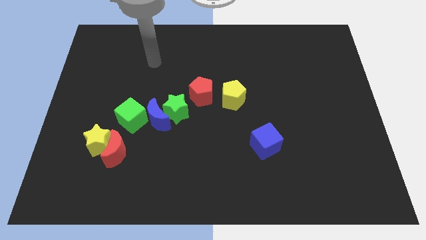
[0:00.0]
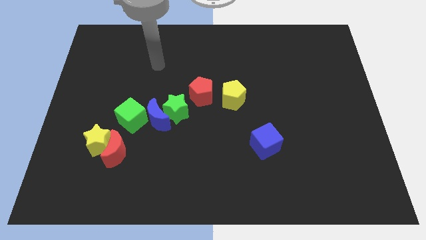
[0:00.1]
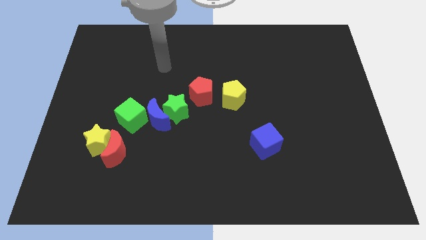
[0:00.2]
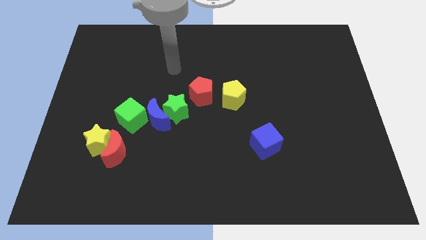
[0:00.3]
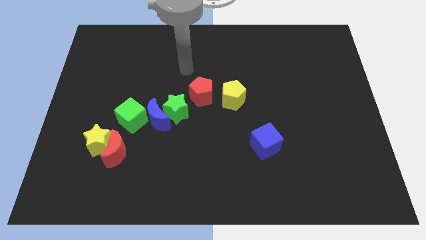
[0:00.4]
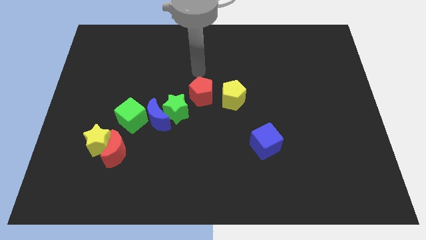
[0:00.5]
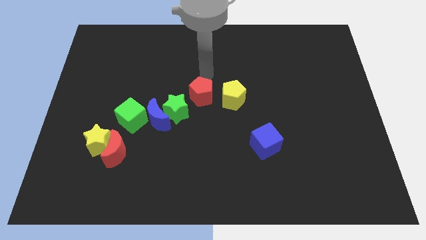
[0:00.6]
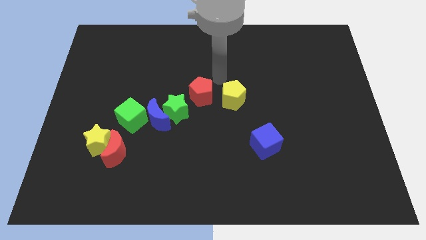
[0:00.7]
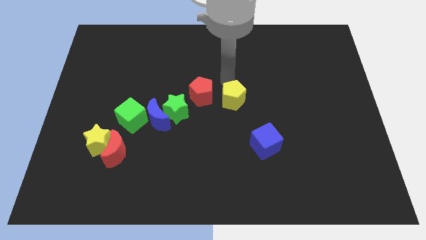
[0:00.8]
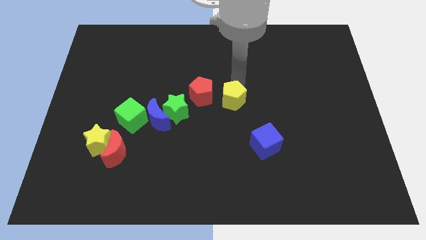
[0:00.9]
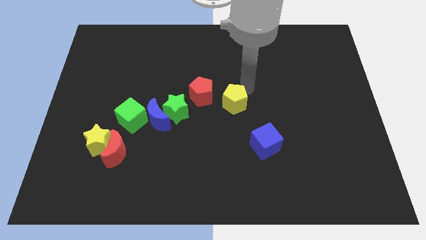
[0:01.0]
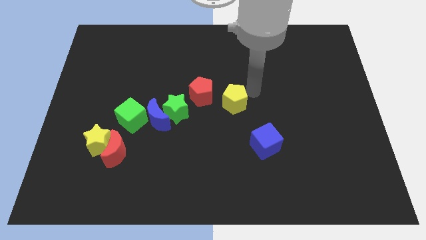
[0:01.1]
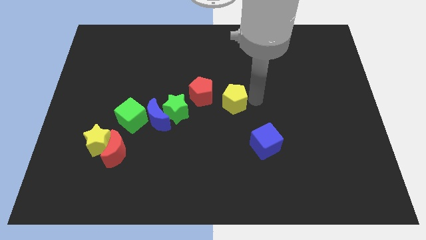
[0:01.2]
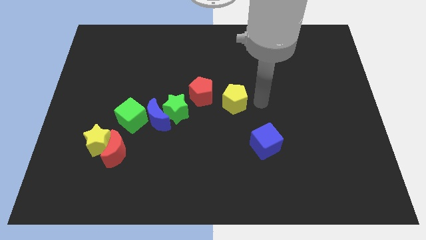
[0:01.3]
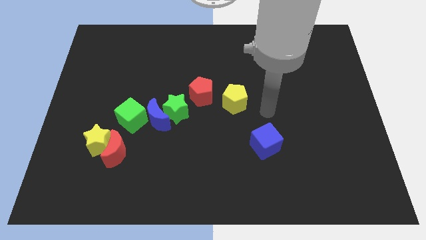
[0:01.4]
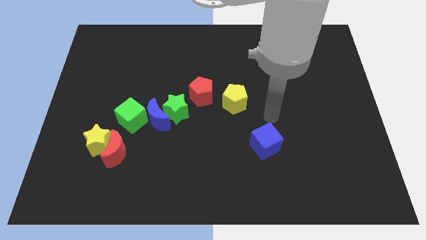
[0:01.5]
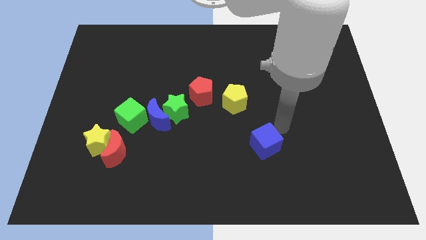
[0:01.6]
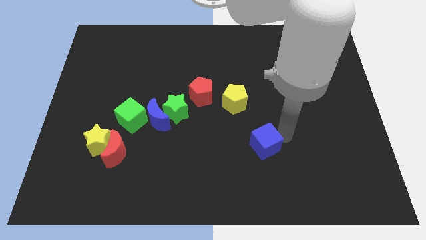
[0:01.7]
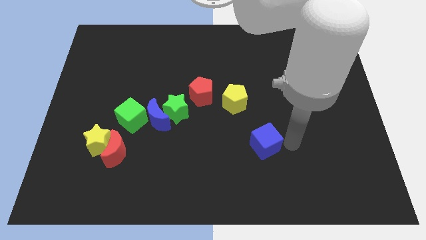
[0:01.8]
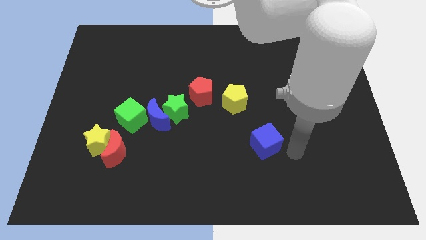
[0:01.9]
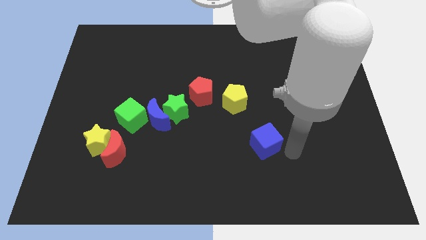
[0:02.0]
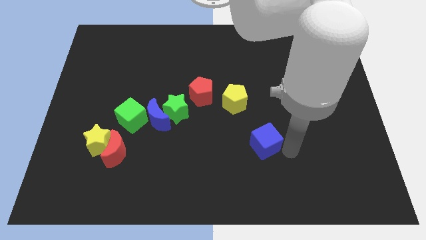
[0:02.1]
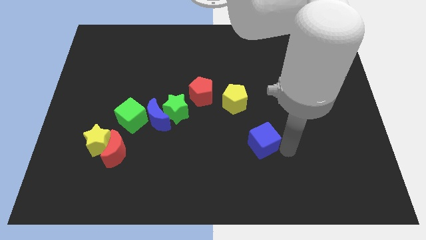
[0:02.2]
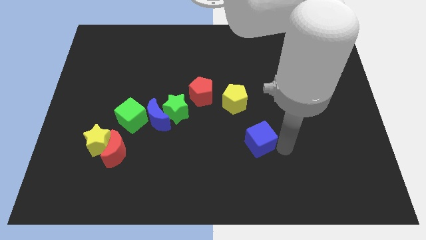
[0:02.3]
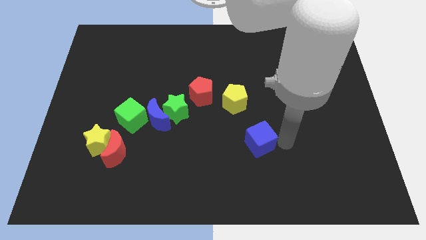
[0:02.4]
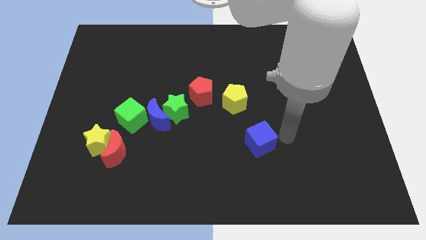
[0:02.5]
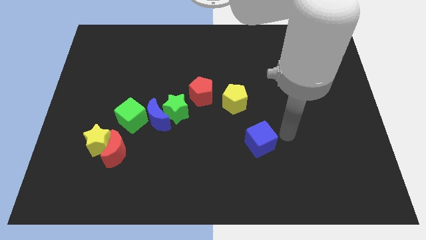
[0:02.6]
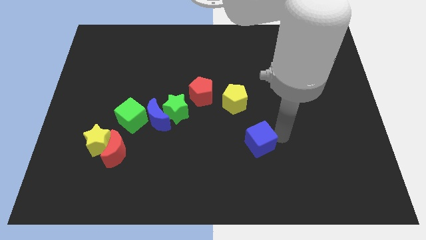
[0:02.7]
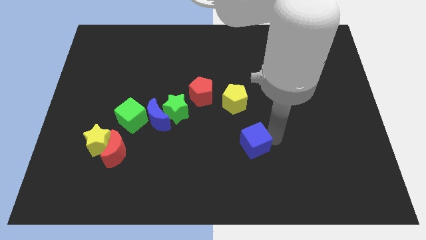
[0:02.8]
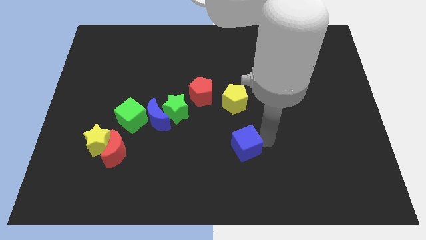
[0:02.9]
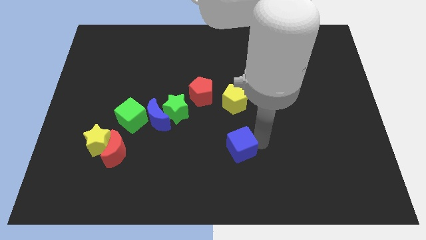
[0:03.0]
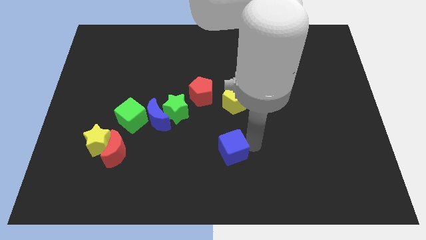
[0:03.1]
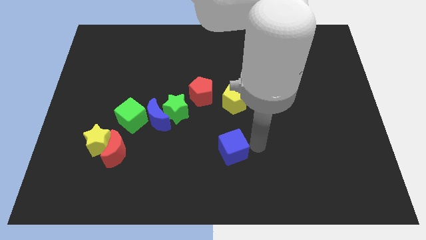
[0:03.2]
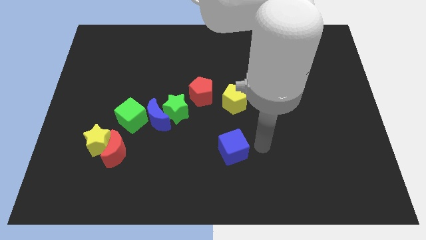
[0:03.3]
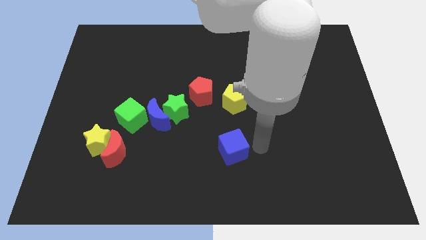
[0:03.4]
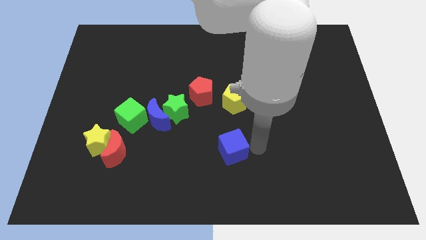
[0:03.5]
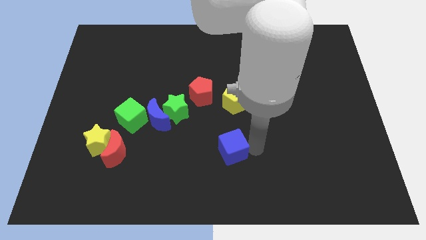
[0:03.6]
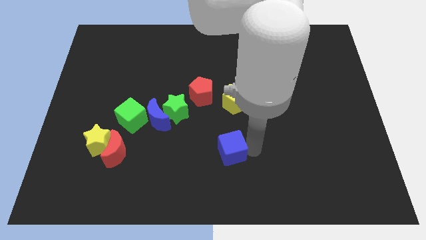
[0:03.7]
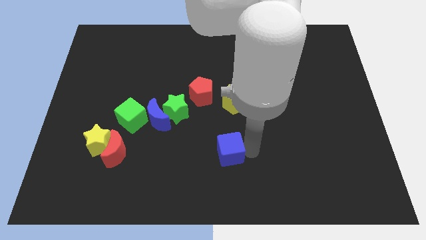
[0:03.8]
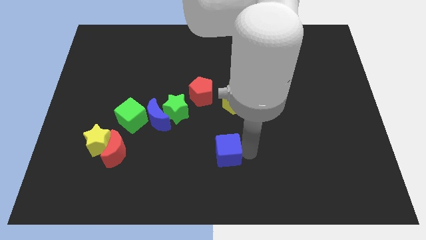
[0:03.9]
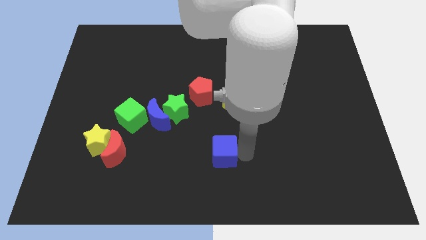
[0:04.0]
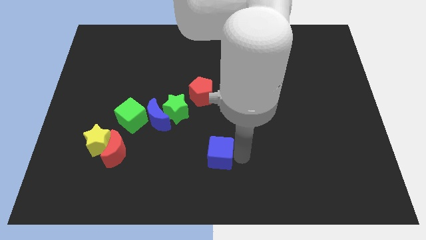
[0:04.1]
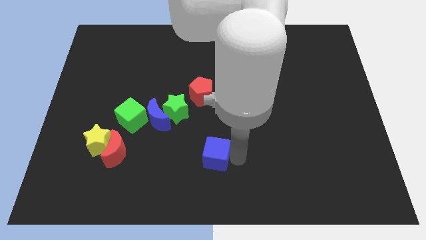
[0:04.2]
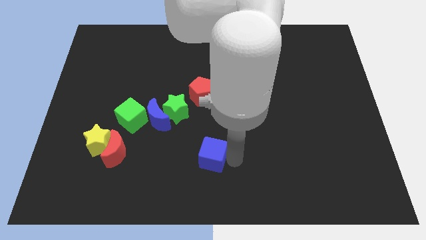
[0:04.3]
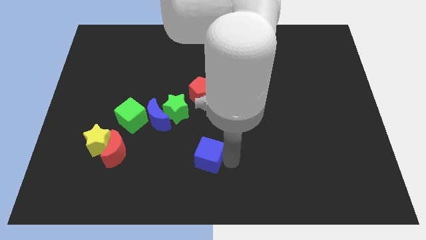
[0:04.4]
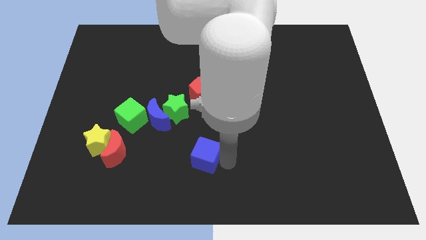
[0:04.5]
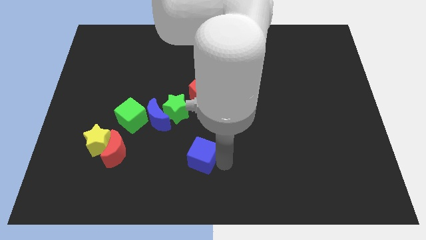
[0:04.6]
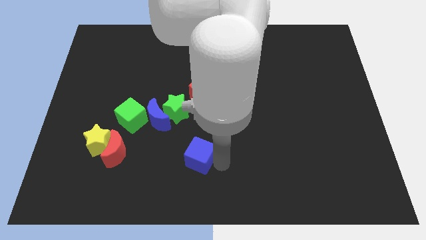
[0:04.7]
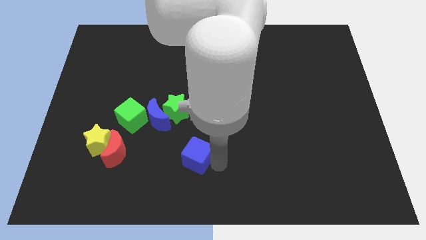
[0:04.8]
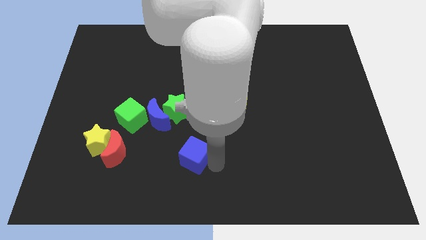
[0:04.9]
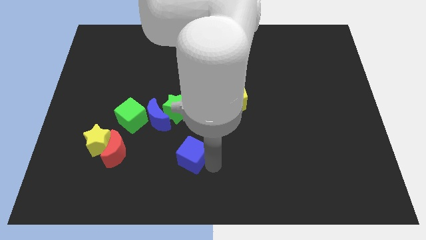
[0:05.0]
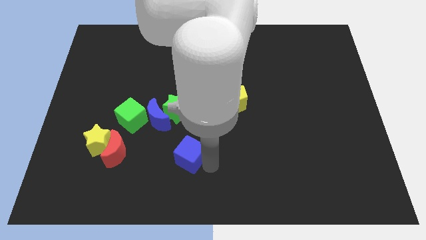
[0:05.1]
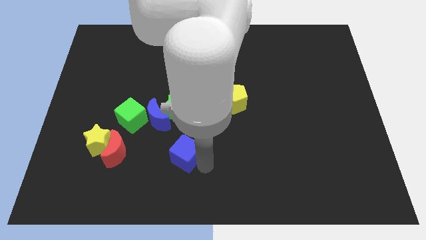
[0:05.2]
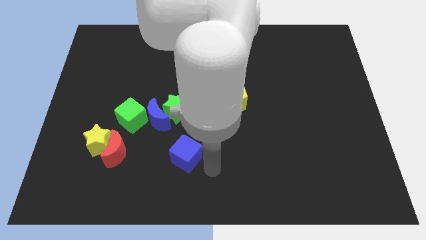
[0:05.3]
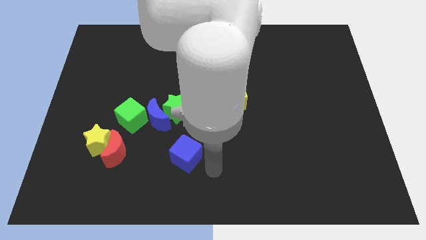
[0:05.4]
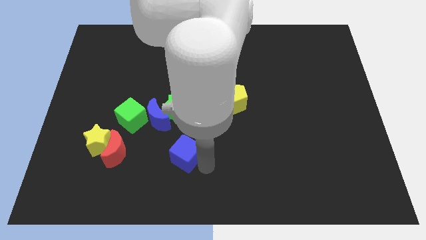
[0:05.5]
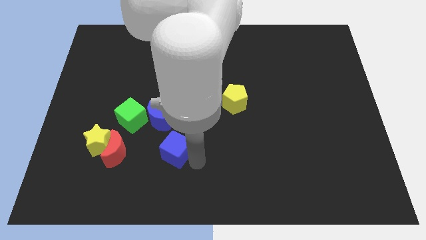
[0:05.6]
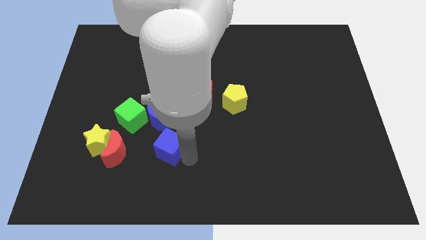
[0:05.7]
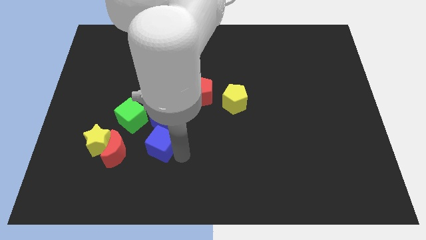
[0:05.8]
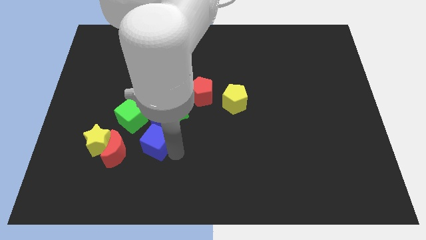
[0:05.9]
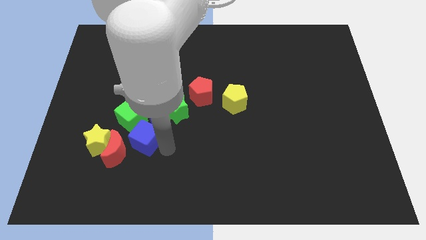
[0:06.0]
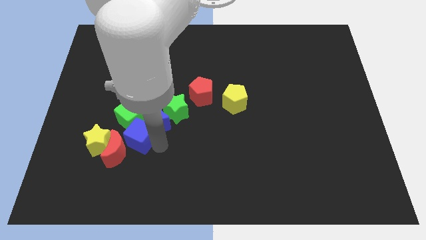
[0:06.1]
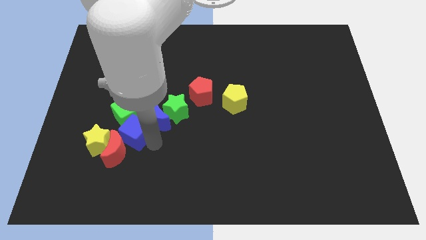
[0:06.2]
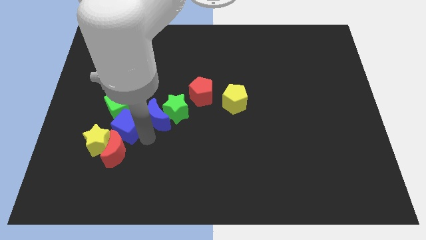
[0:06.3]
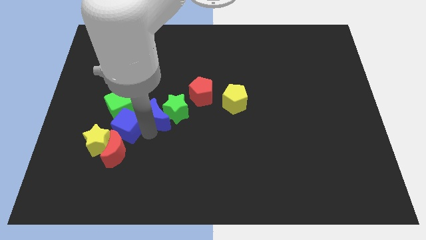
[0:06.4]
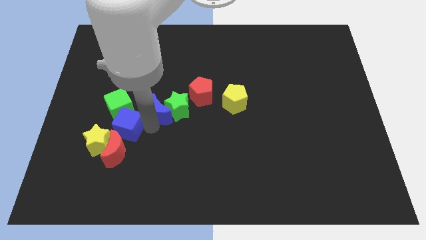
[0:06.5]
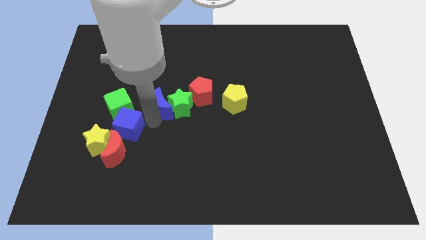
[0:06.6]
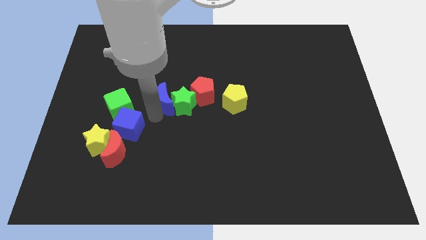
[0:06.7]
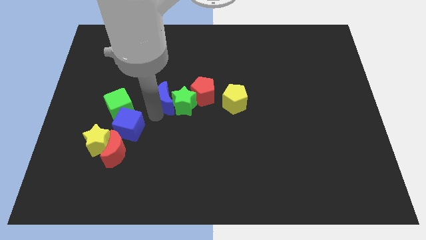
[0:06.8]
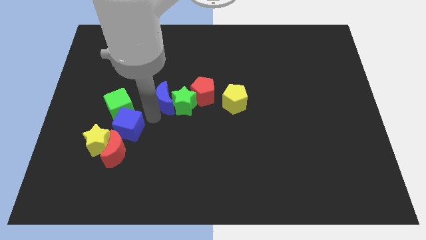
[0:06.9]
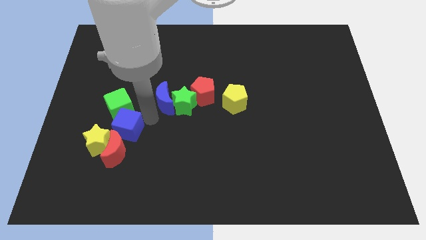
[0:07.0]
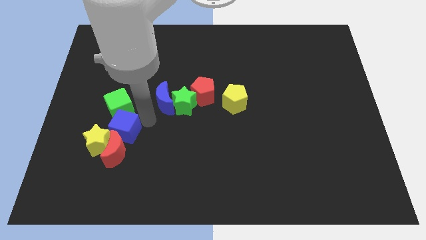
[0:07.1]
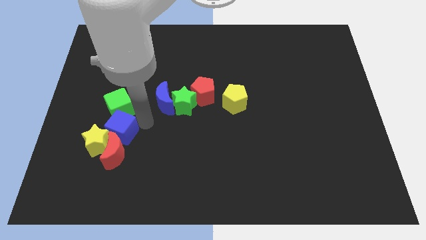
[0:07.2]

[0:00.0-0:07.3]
slide the blue cube to the yellow star

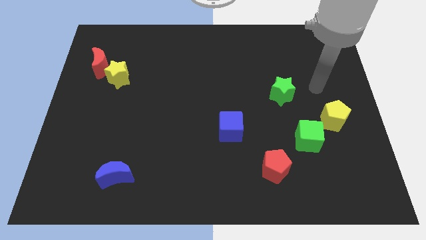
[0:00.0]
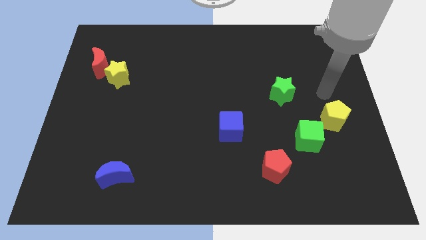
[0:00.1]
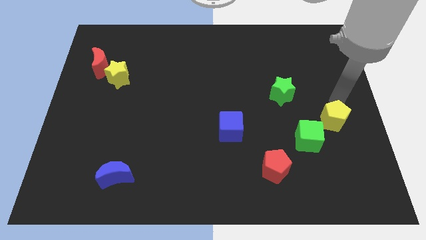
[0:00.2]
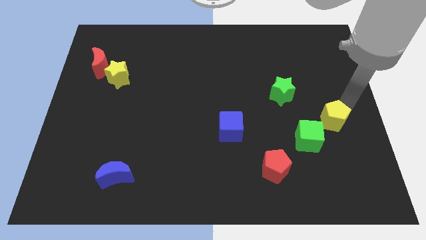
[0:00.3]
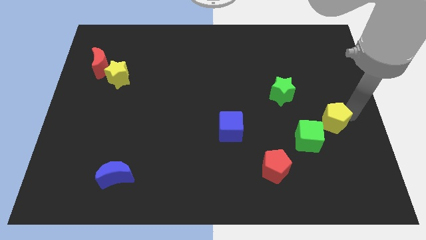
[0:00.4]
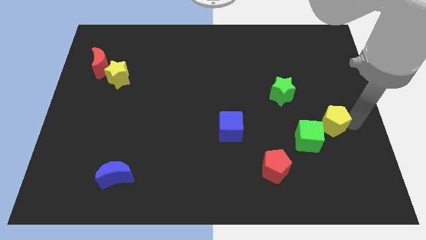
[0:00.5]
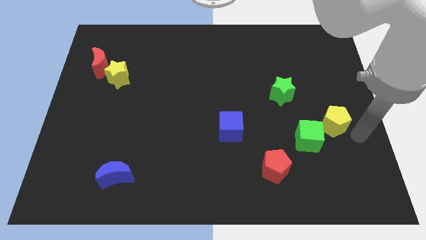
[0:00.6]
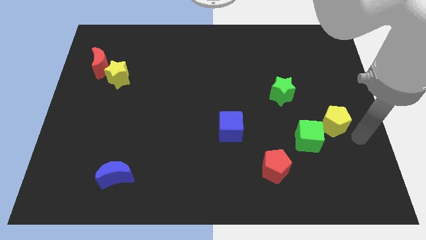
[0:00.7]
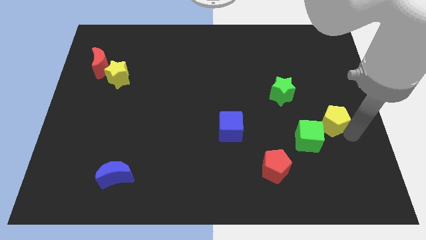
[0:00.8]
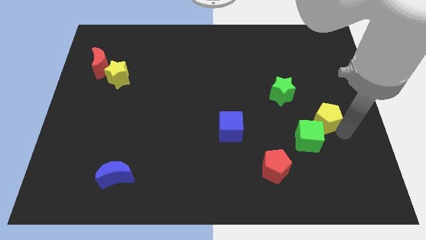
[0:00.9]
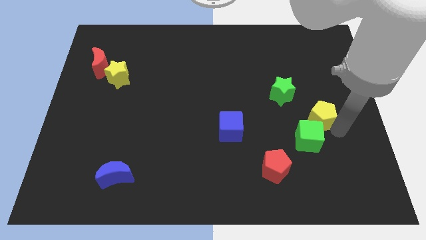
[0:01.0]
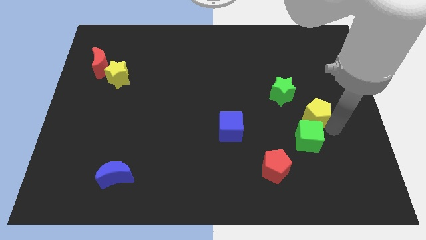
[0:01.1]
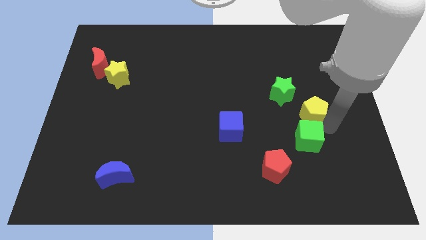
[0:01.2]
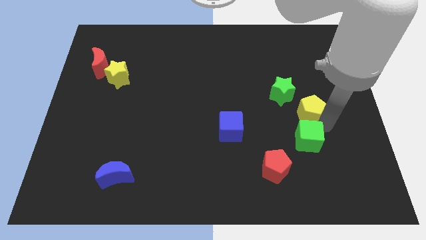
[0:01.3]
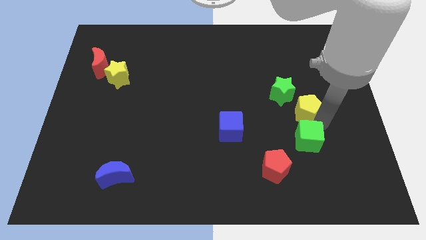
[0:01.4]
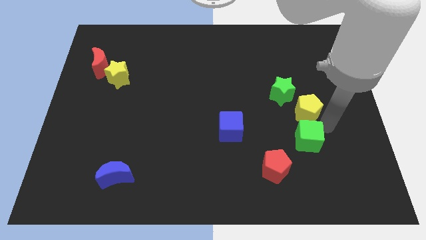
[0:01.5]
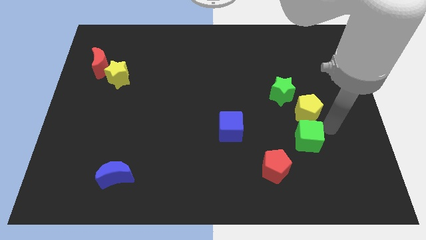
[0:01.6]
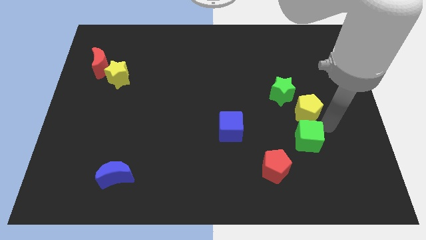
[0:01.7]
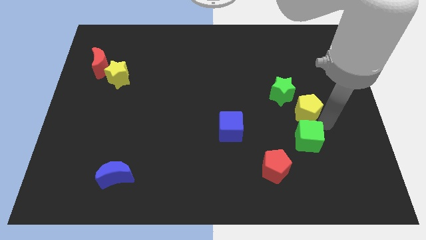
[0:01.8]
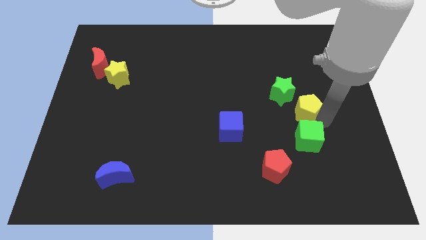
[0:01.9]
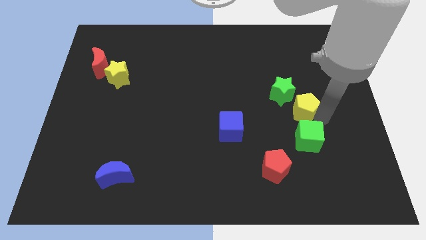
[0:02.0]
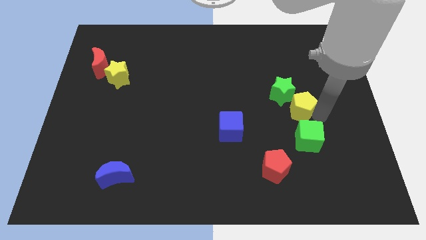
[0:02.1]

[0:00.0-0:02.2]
put the yellow pentagon towards the green star
